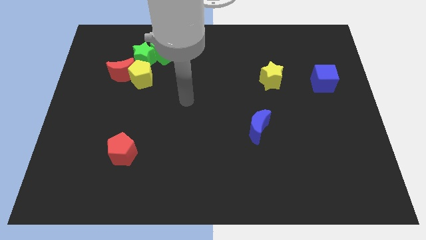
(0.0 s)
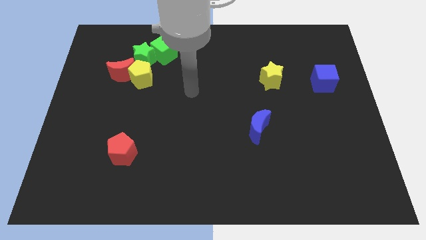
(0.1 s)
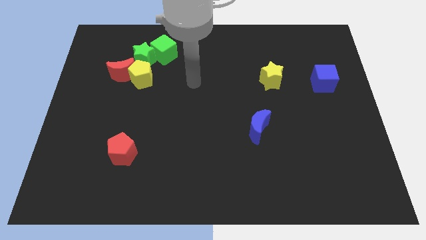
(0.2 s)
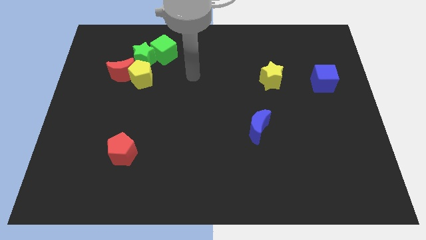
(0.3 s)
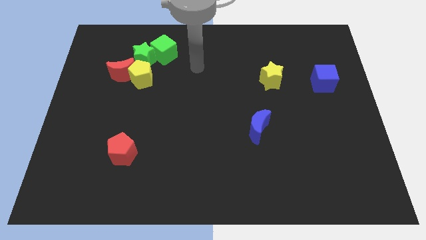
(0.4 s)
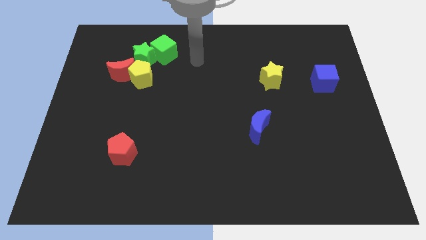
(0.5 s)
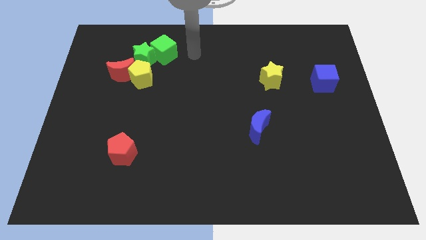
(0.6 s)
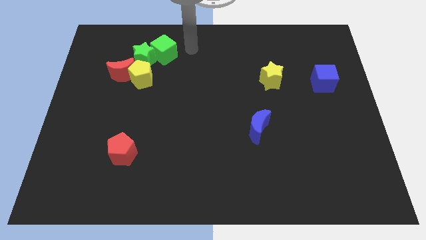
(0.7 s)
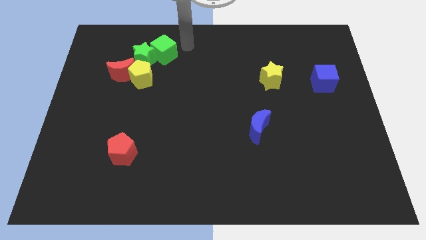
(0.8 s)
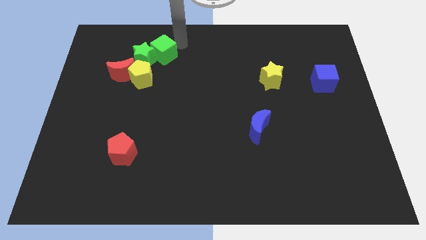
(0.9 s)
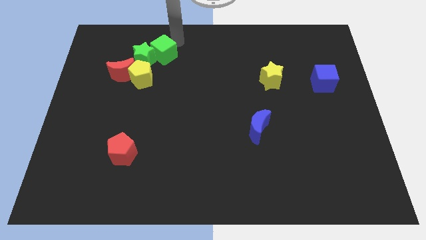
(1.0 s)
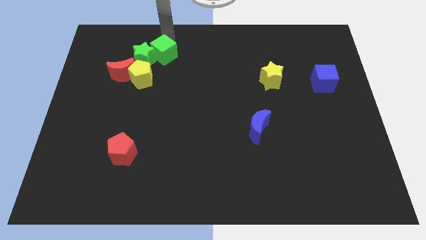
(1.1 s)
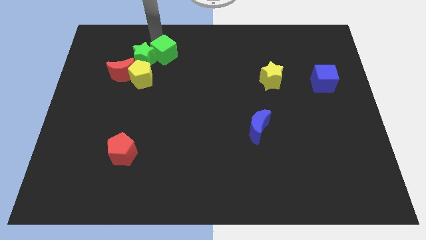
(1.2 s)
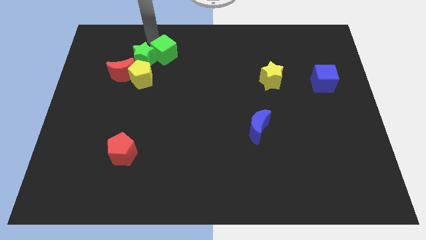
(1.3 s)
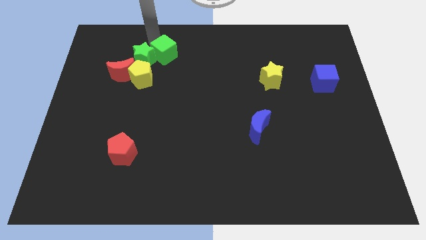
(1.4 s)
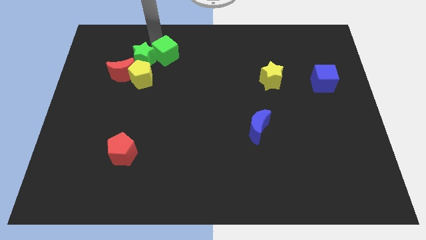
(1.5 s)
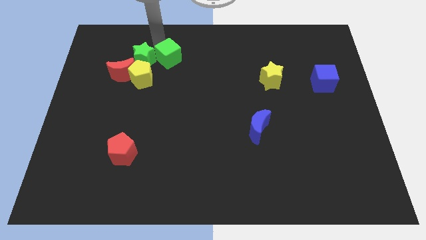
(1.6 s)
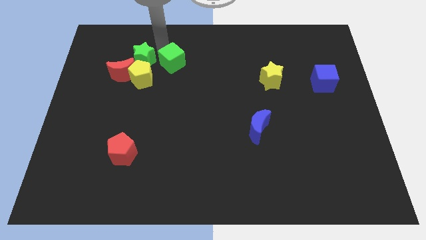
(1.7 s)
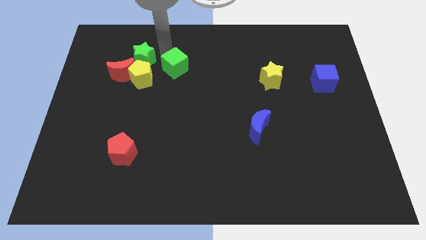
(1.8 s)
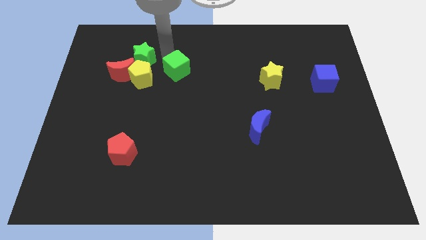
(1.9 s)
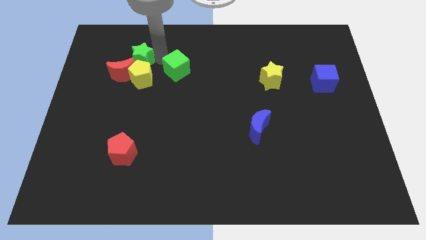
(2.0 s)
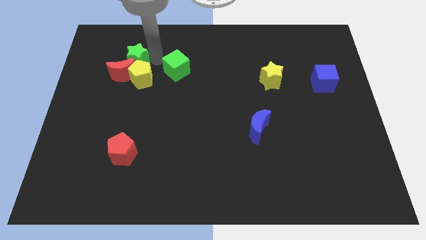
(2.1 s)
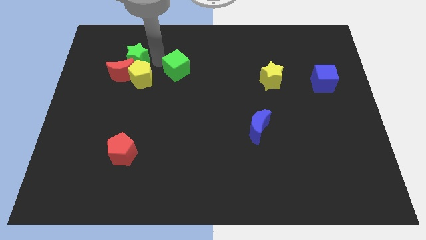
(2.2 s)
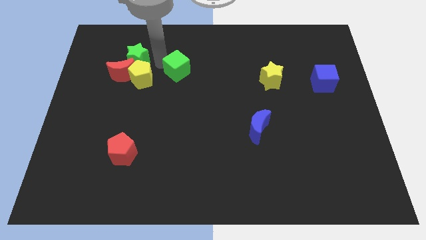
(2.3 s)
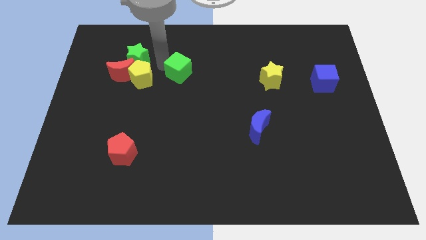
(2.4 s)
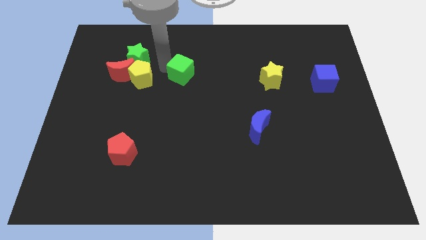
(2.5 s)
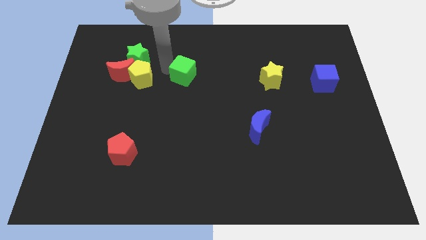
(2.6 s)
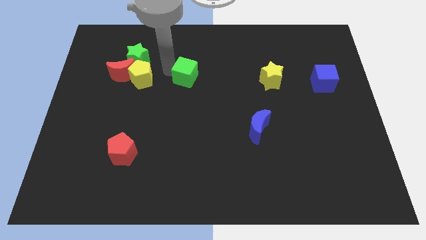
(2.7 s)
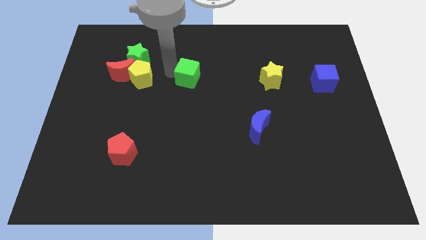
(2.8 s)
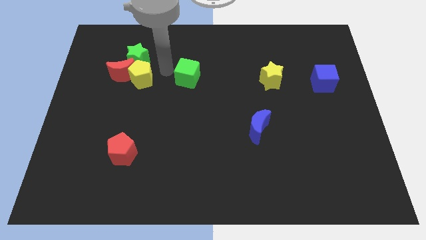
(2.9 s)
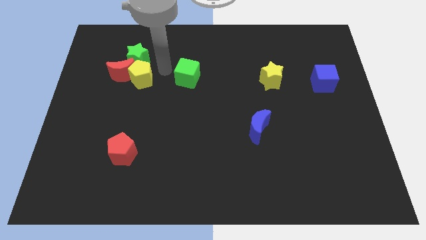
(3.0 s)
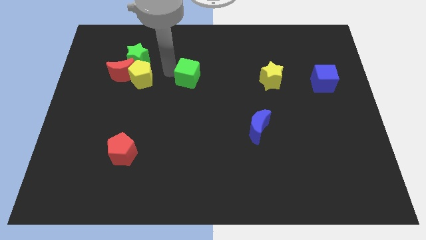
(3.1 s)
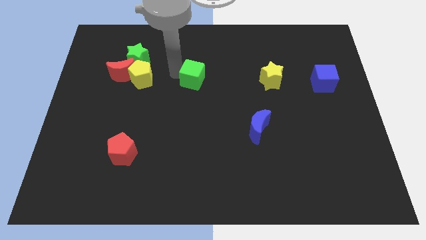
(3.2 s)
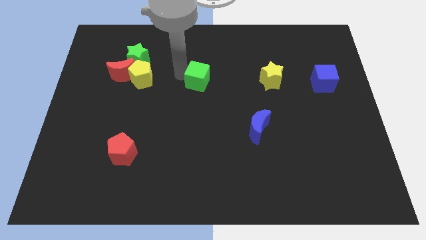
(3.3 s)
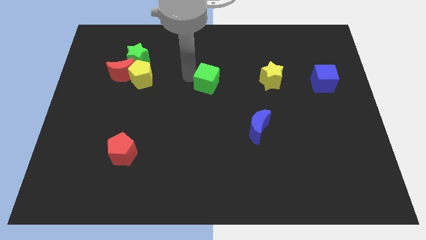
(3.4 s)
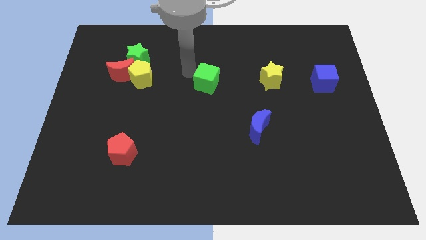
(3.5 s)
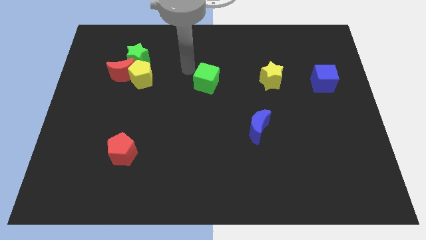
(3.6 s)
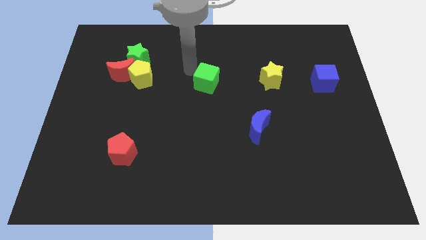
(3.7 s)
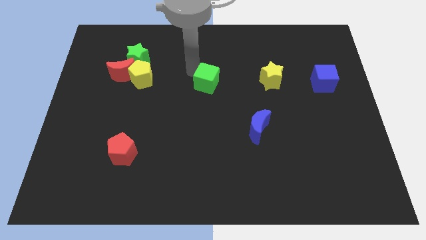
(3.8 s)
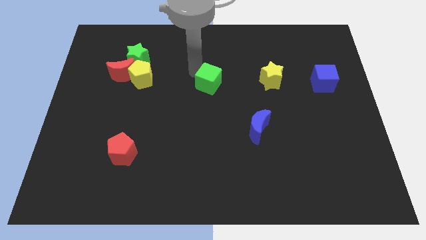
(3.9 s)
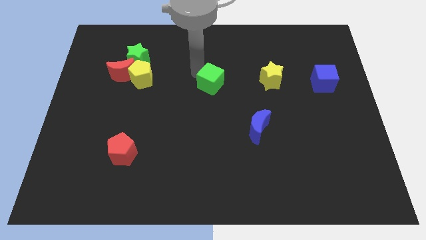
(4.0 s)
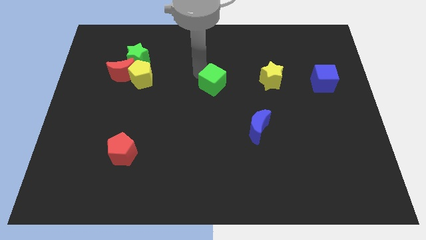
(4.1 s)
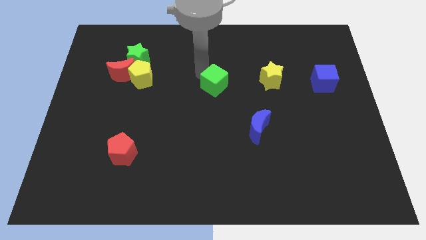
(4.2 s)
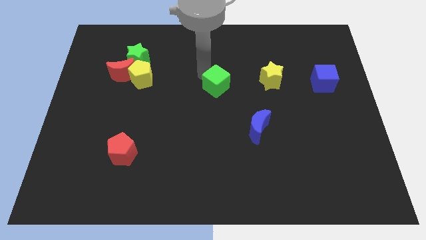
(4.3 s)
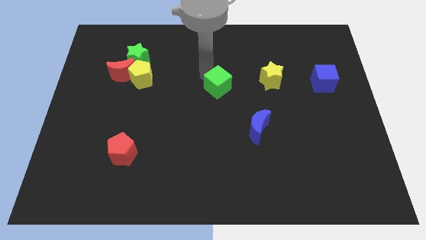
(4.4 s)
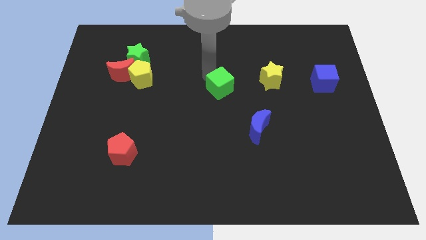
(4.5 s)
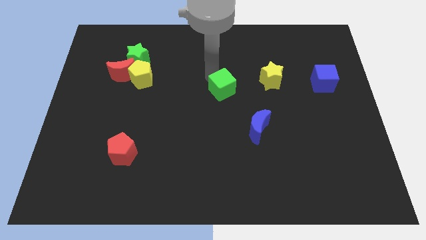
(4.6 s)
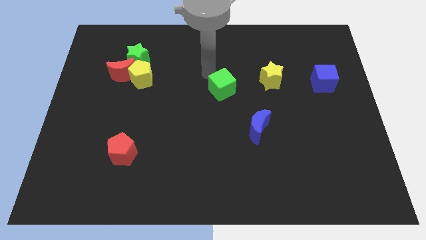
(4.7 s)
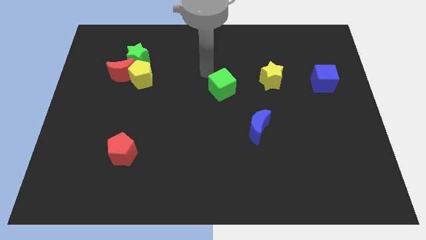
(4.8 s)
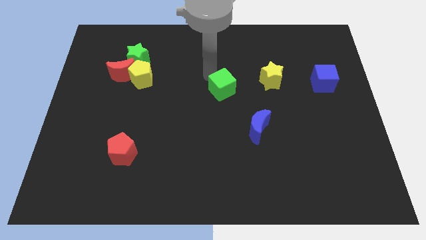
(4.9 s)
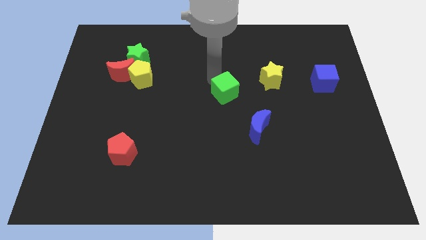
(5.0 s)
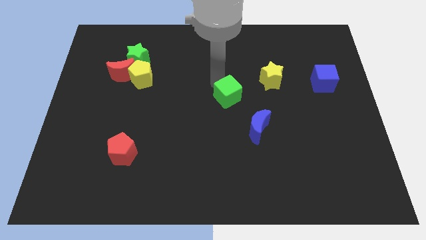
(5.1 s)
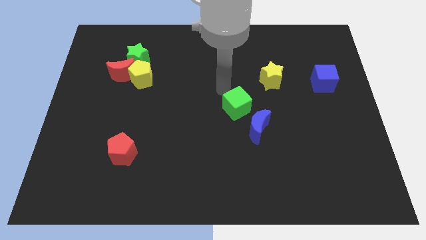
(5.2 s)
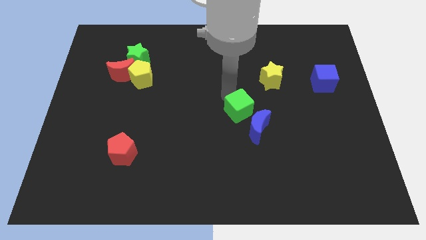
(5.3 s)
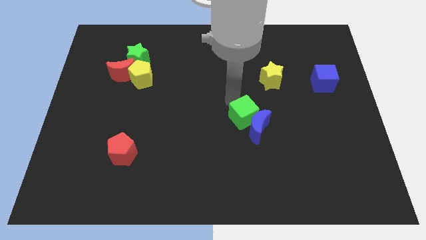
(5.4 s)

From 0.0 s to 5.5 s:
put the green cube close to the blue moon

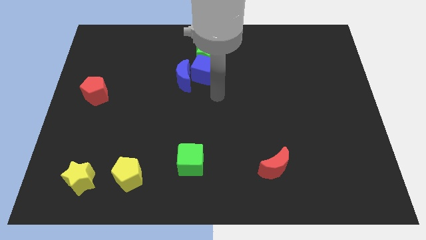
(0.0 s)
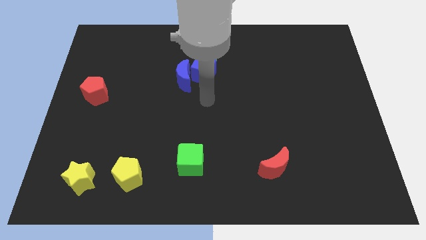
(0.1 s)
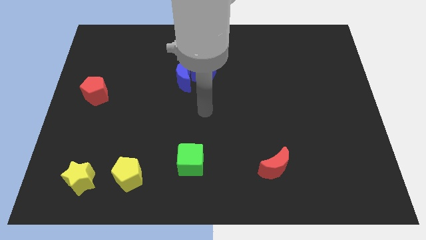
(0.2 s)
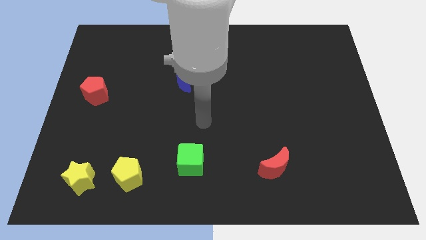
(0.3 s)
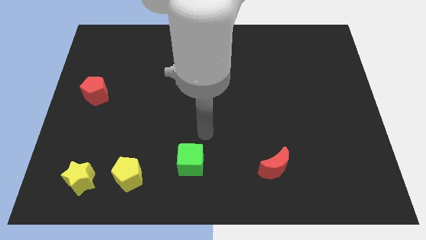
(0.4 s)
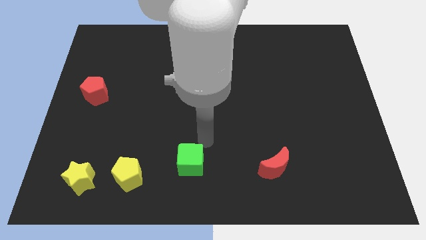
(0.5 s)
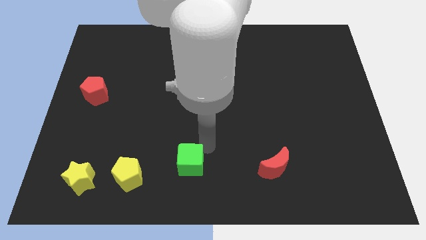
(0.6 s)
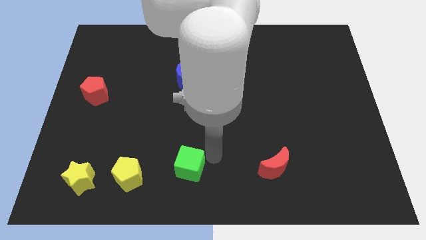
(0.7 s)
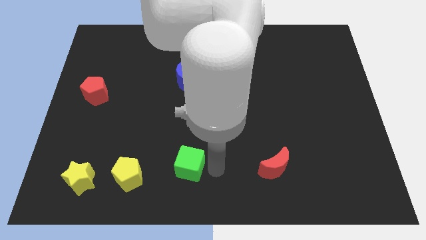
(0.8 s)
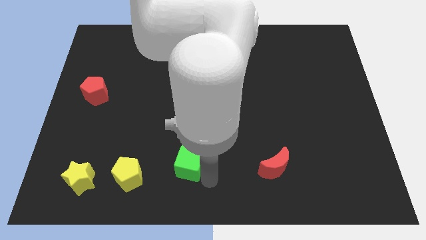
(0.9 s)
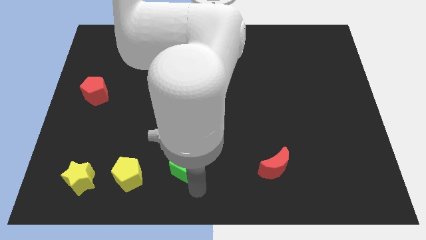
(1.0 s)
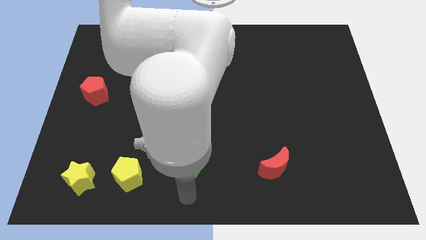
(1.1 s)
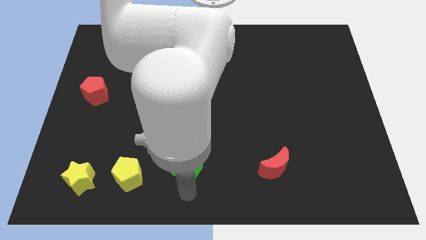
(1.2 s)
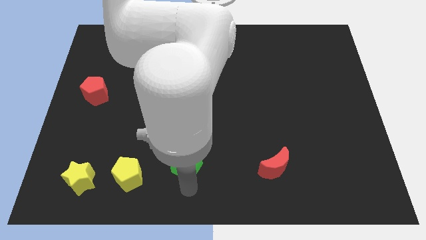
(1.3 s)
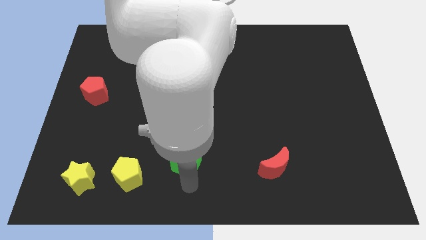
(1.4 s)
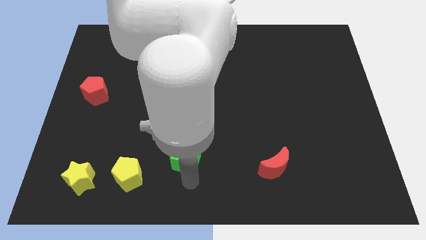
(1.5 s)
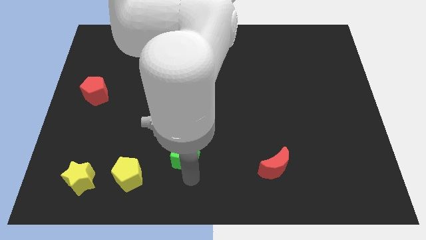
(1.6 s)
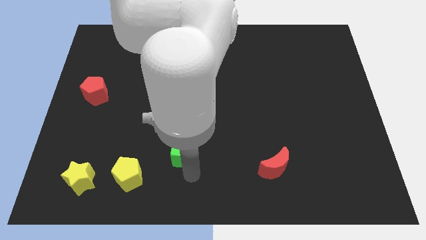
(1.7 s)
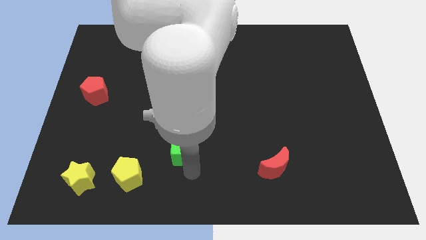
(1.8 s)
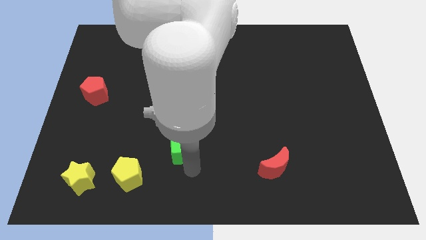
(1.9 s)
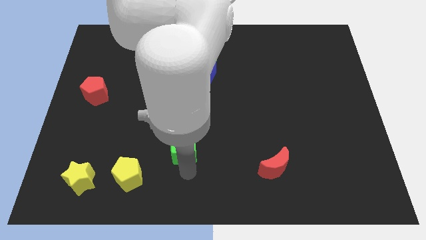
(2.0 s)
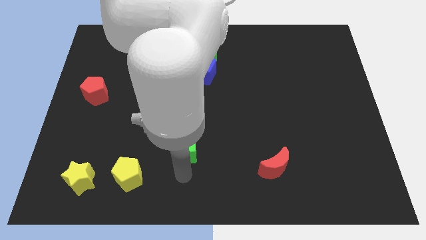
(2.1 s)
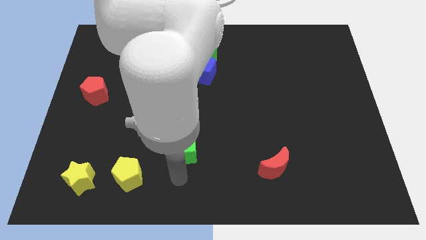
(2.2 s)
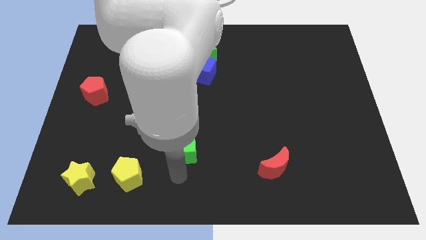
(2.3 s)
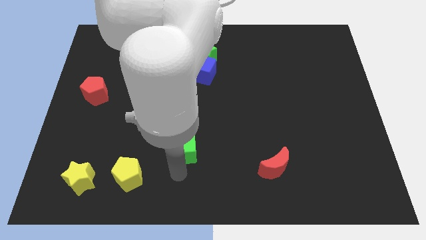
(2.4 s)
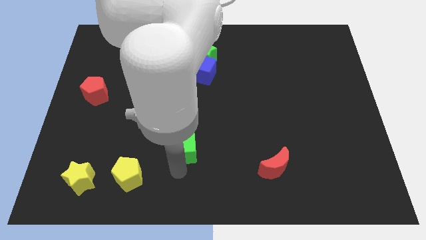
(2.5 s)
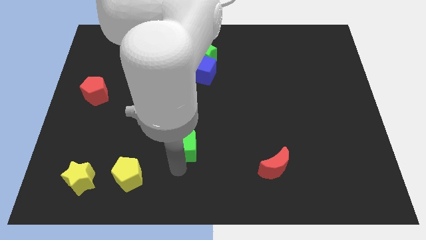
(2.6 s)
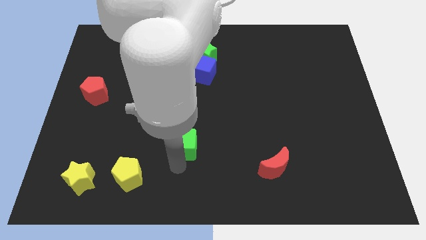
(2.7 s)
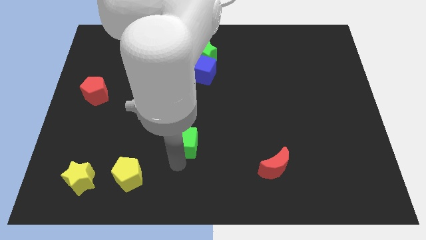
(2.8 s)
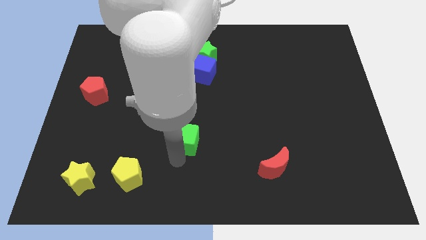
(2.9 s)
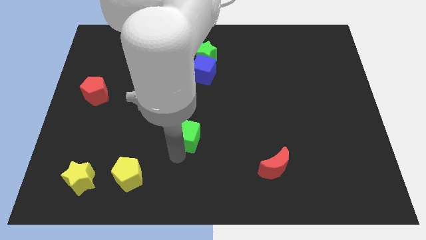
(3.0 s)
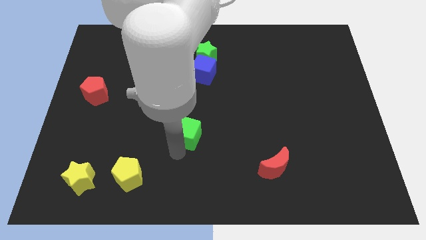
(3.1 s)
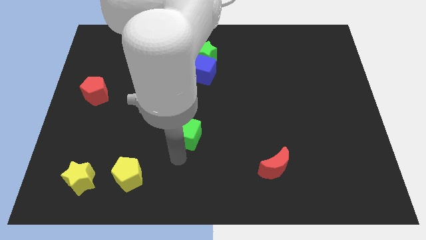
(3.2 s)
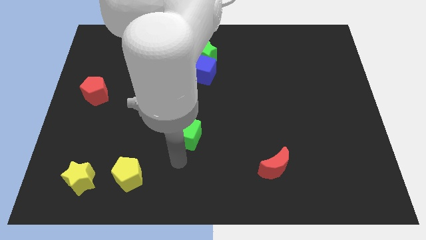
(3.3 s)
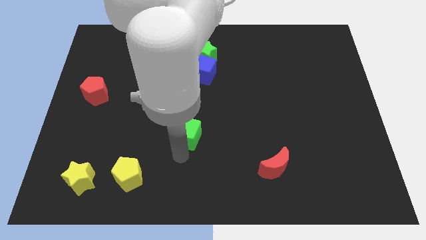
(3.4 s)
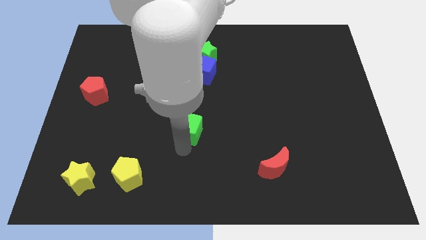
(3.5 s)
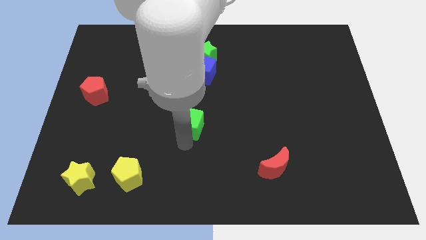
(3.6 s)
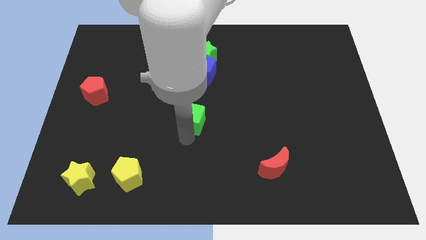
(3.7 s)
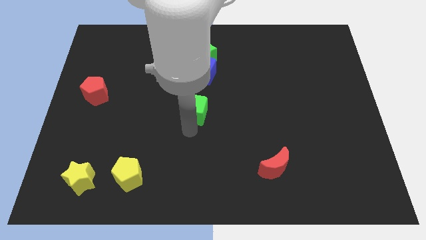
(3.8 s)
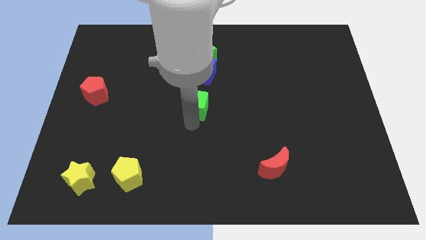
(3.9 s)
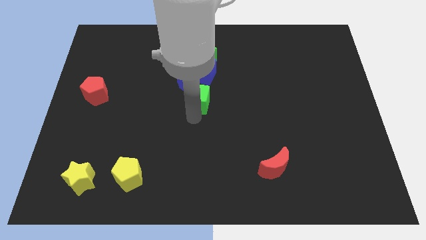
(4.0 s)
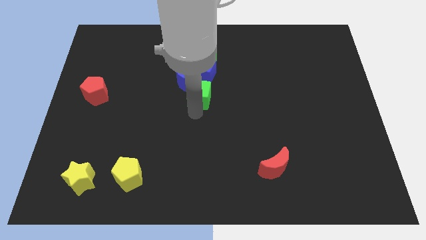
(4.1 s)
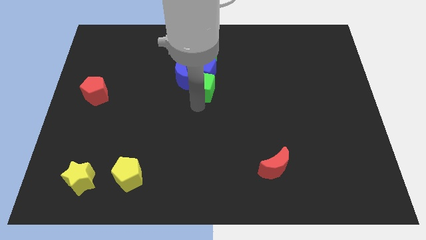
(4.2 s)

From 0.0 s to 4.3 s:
push the green cube next to the blue cube
